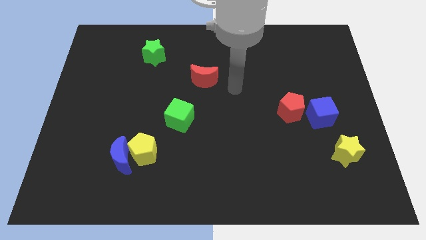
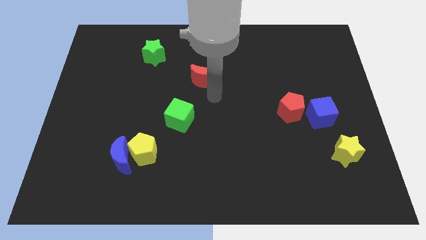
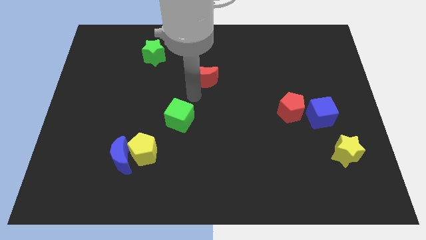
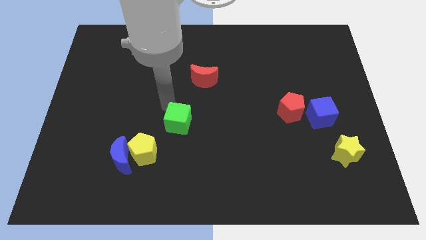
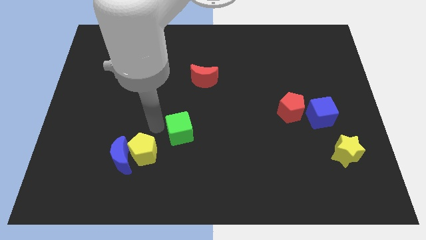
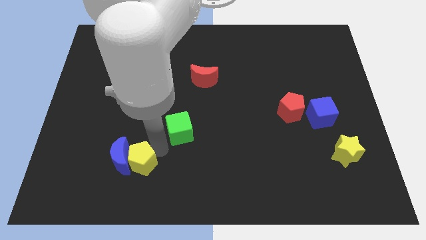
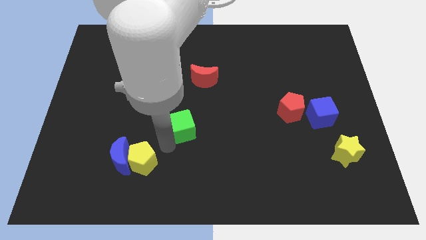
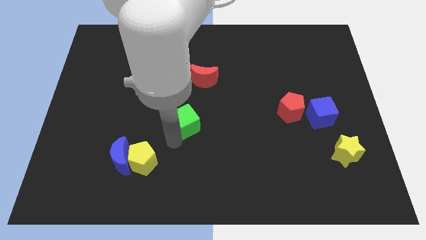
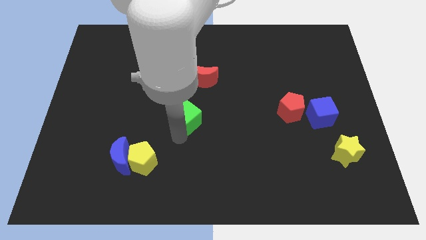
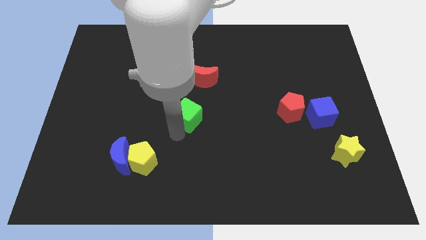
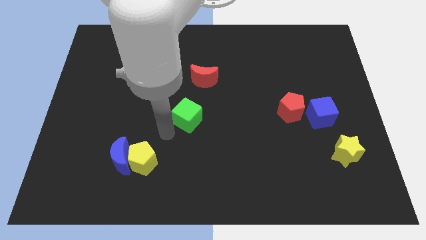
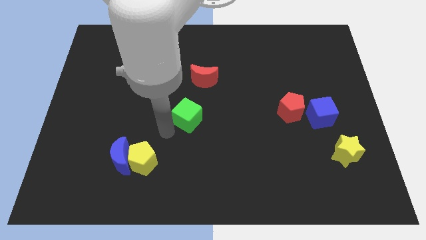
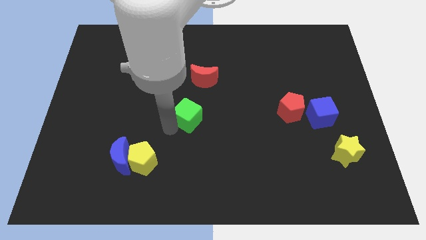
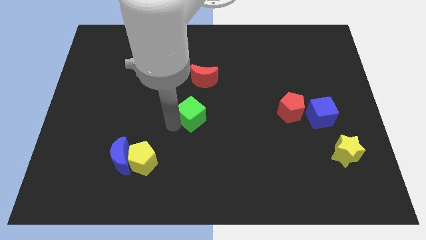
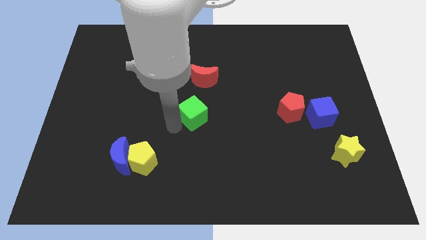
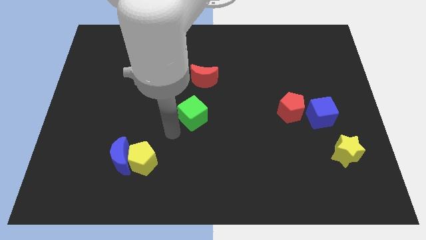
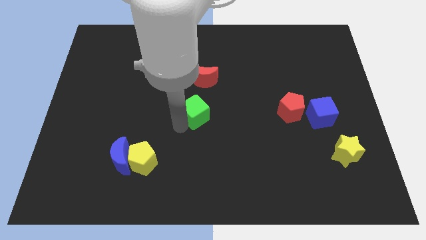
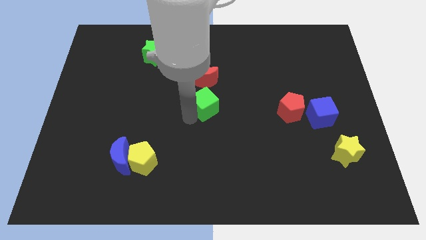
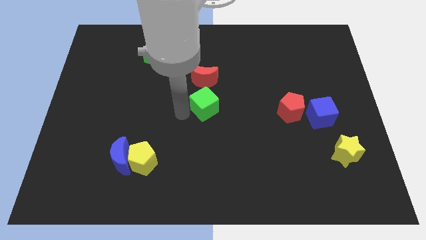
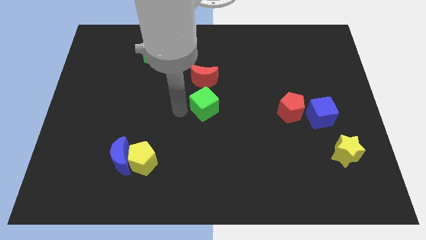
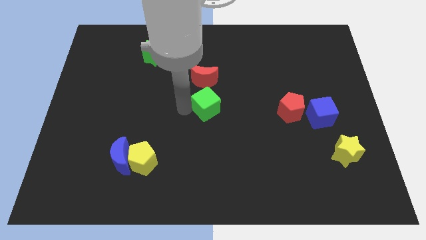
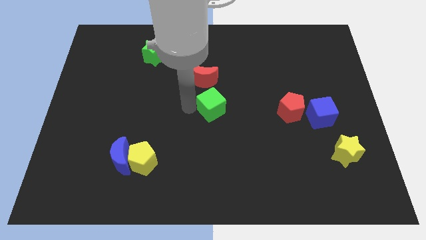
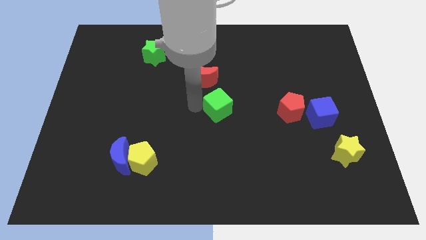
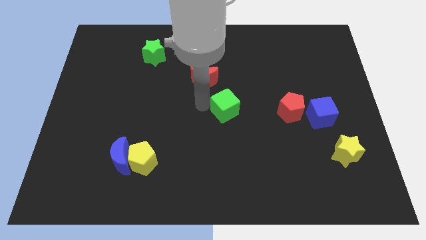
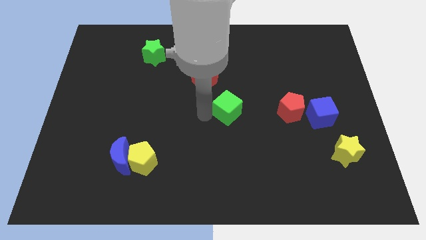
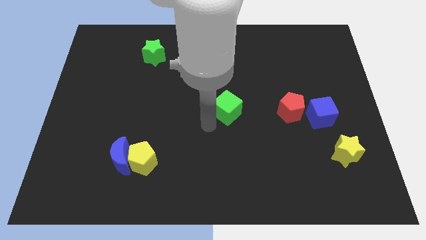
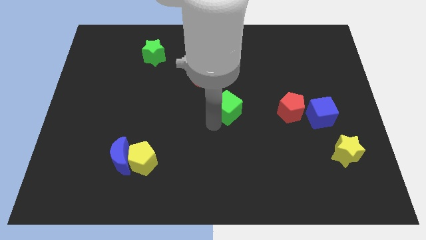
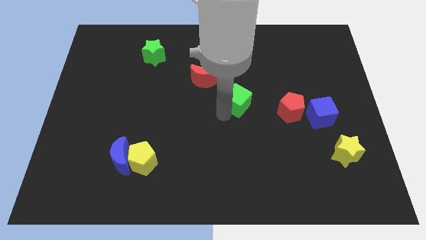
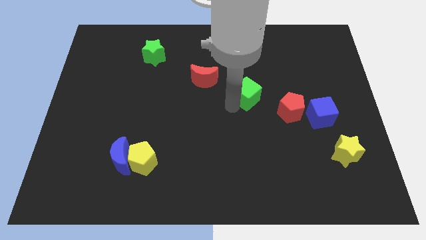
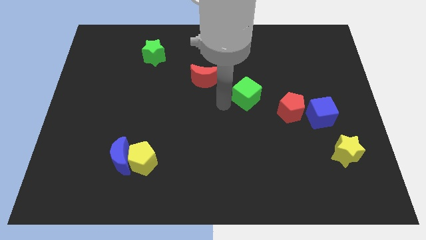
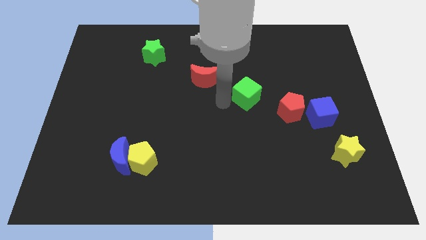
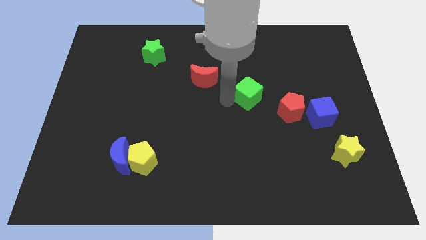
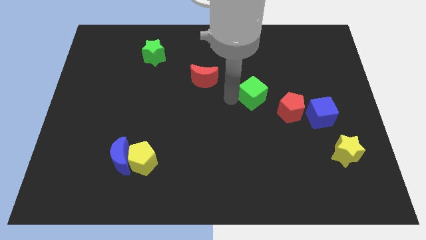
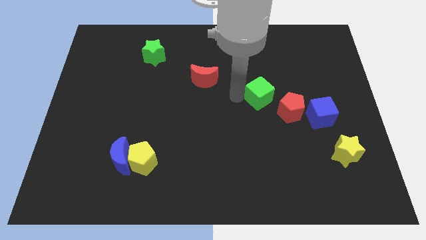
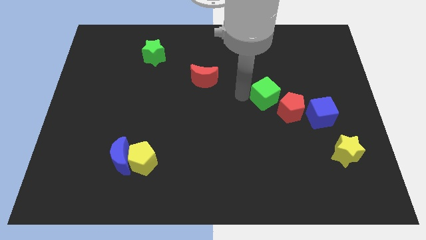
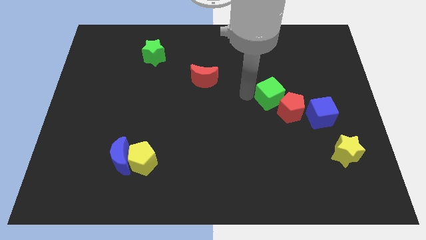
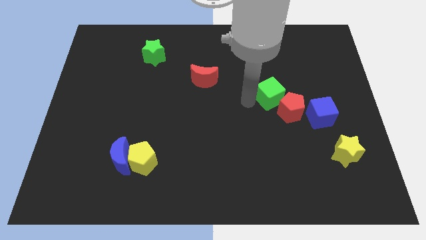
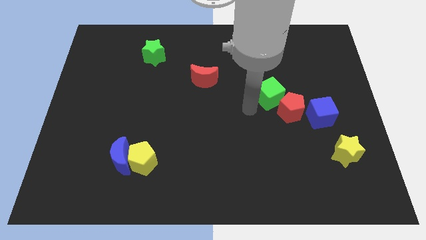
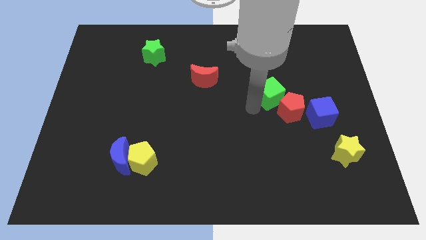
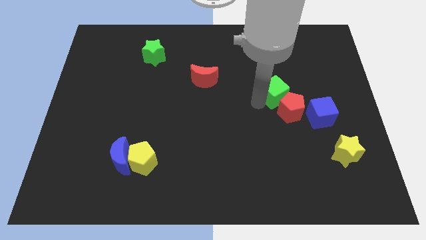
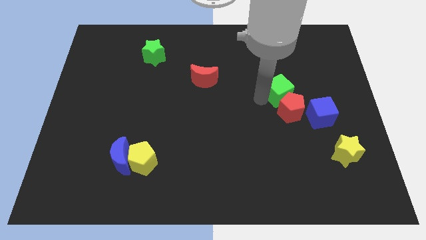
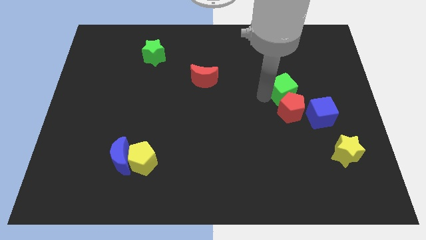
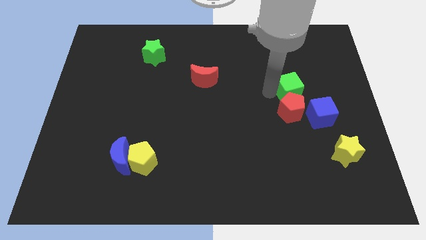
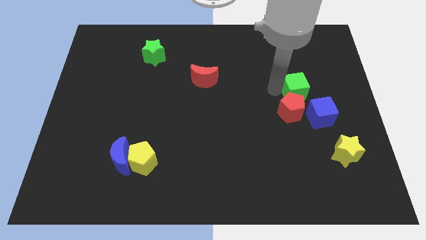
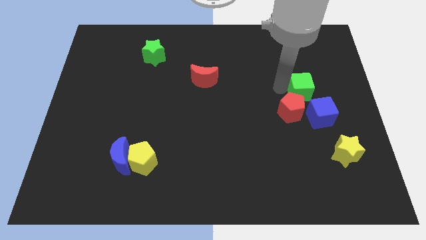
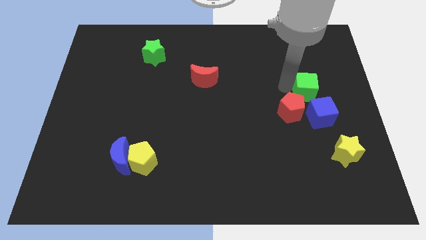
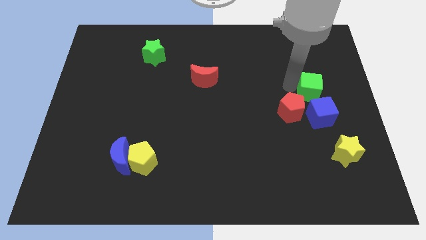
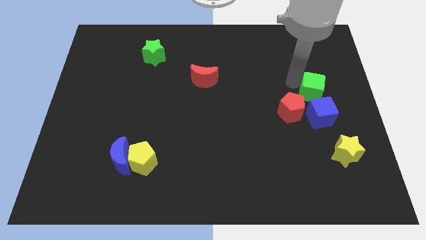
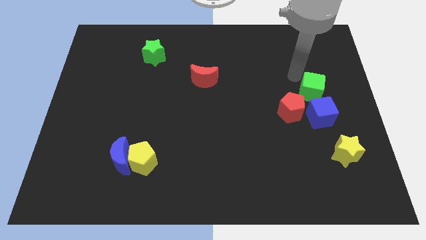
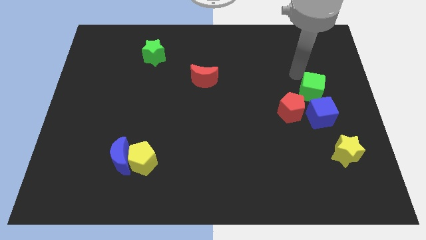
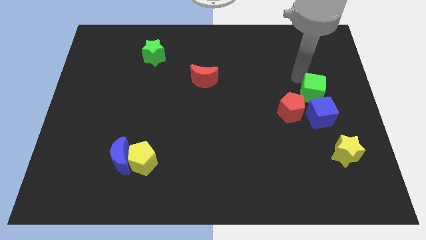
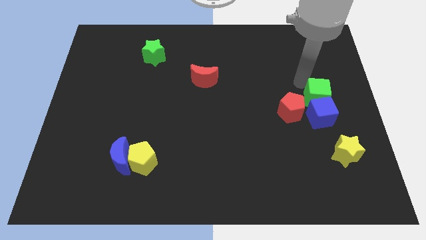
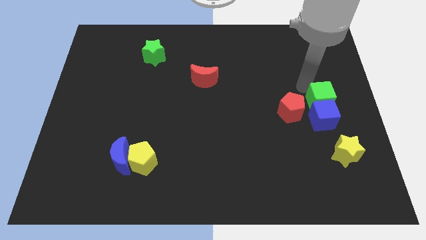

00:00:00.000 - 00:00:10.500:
slide the green cube to the top side of the yellow star

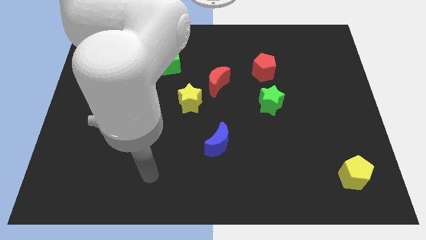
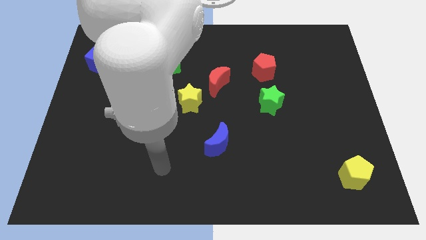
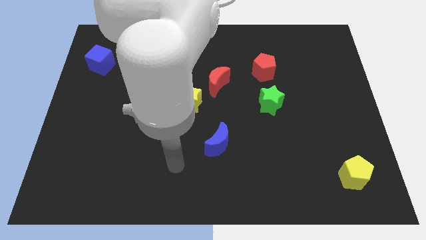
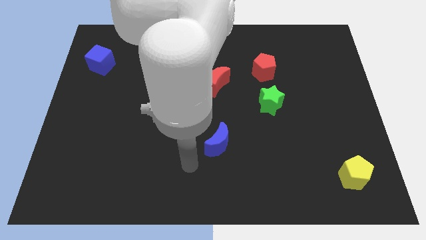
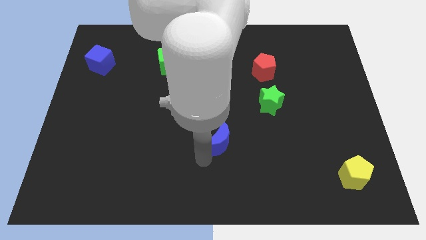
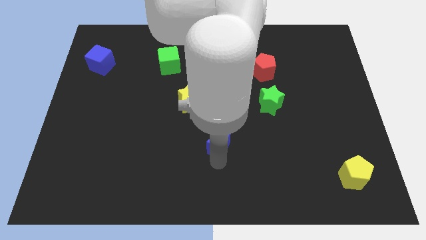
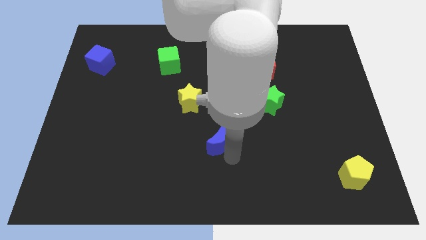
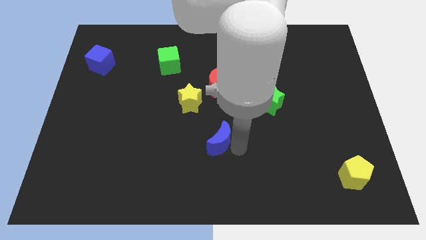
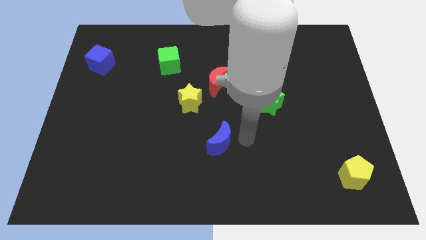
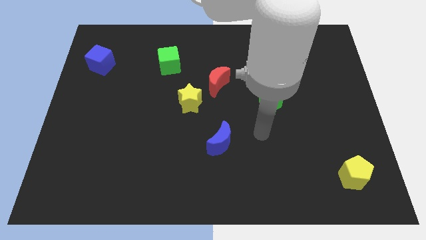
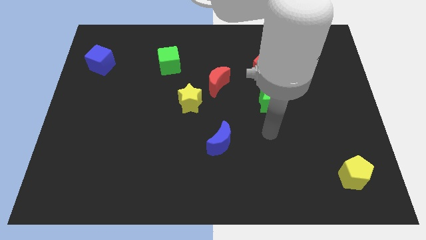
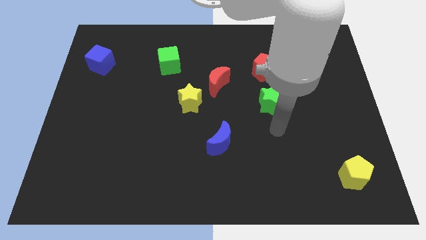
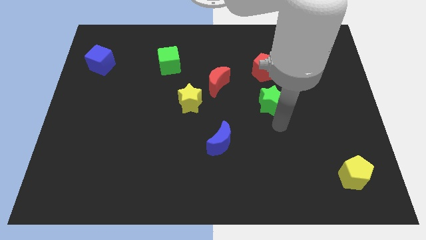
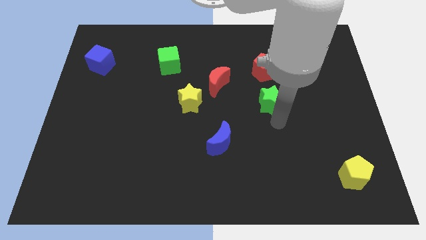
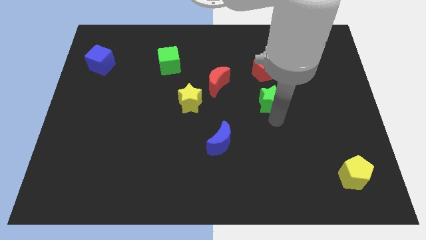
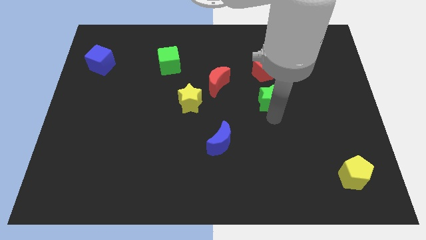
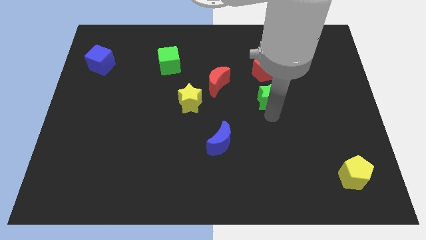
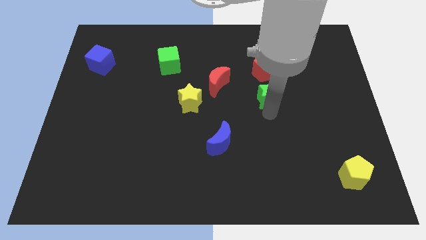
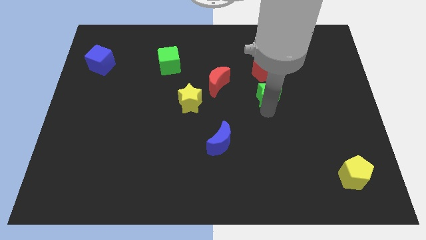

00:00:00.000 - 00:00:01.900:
put the green star right of the red moon
